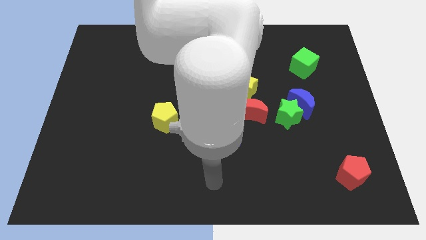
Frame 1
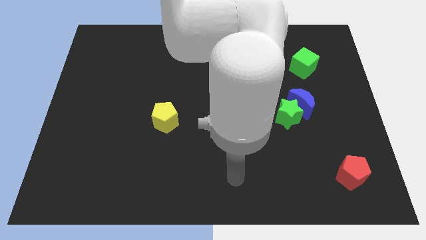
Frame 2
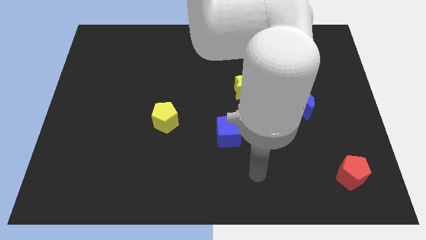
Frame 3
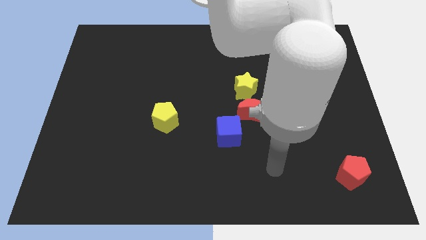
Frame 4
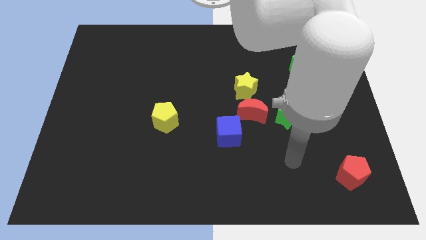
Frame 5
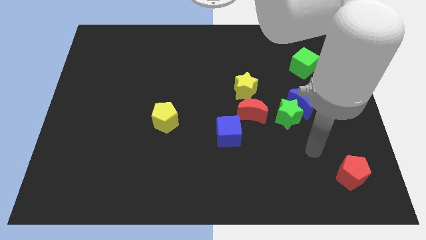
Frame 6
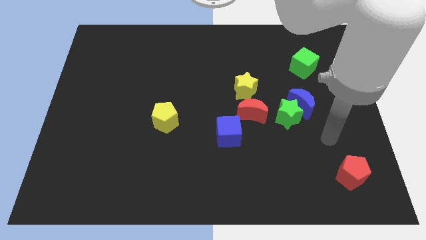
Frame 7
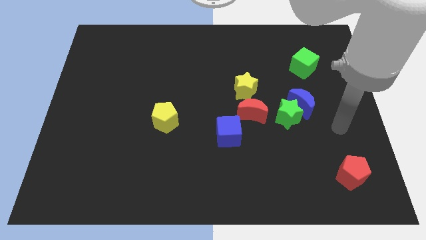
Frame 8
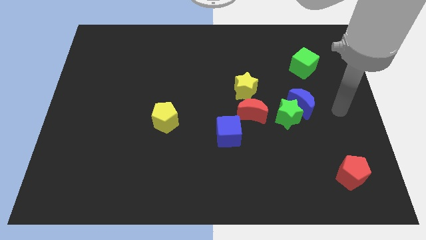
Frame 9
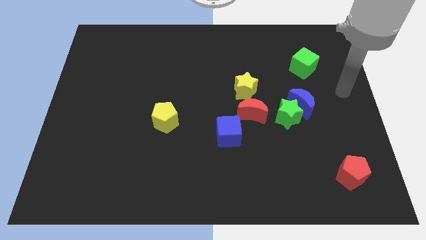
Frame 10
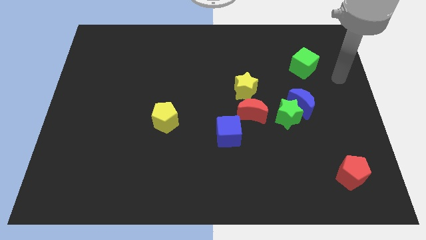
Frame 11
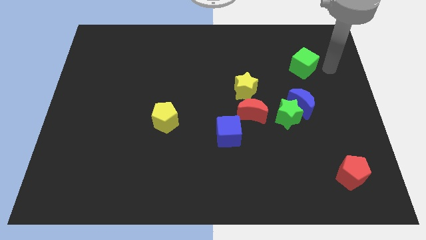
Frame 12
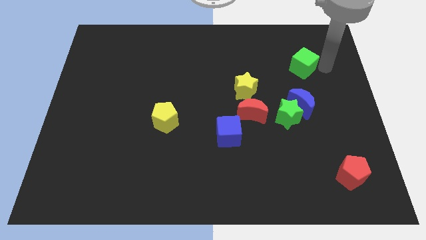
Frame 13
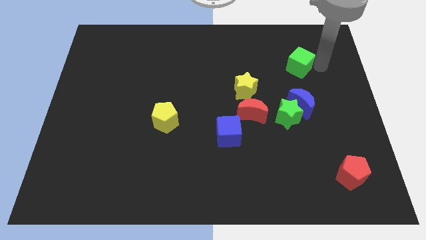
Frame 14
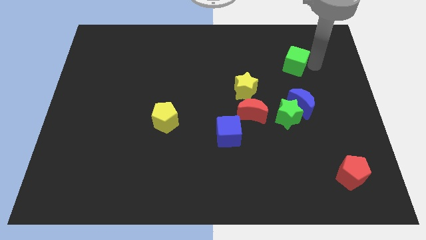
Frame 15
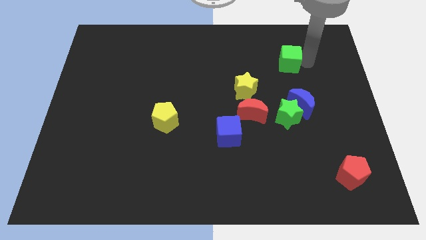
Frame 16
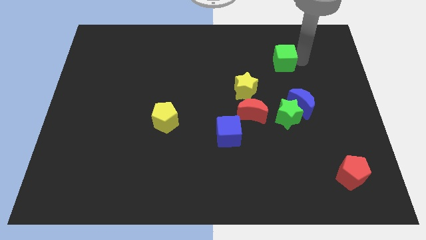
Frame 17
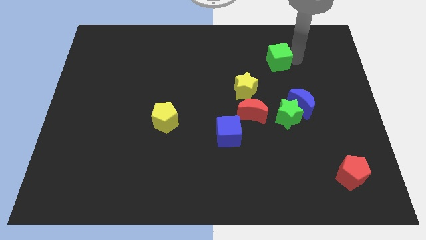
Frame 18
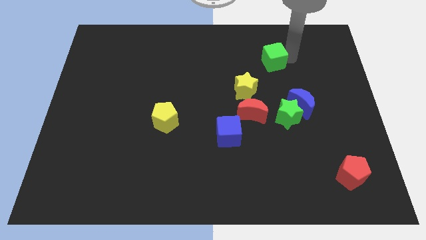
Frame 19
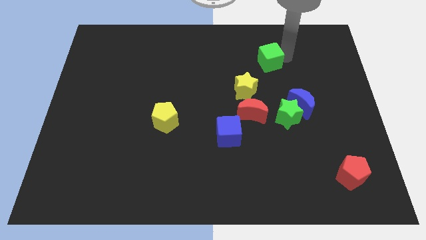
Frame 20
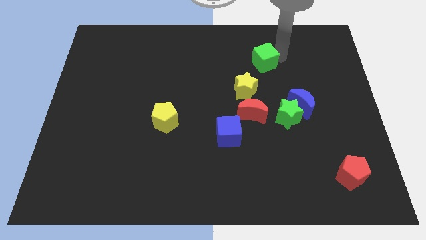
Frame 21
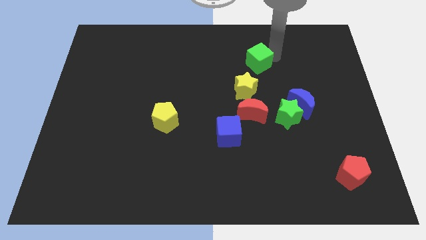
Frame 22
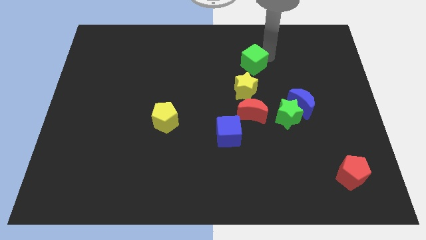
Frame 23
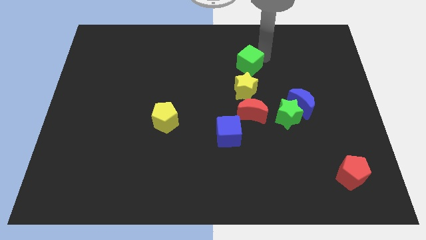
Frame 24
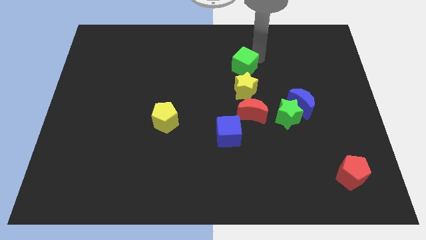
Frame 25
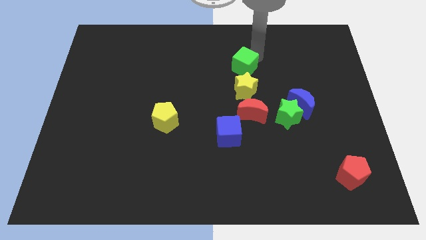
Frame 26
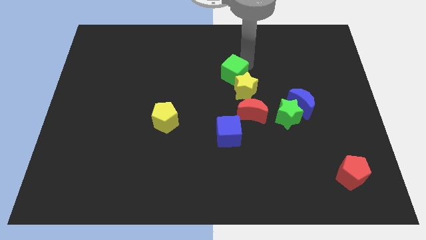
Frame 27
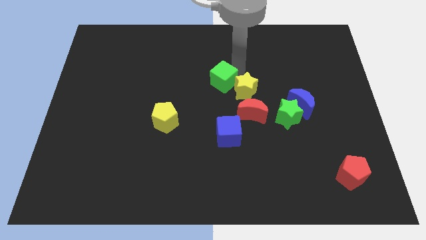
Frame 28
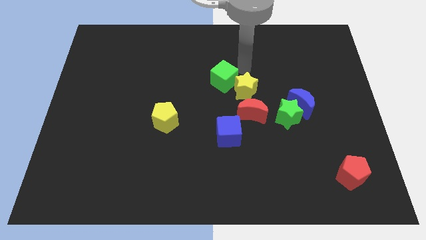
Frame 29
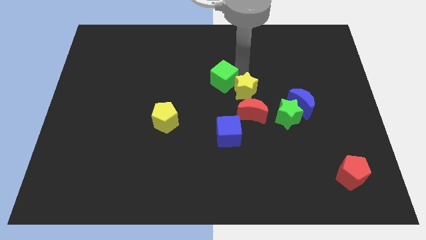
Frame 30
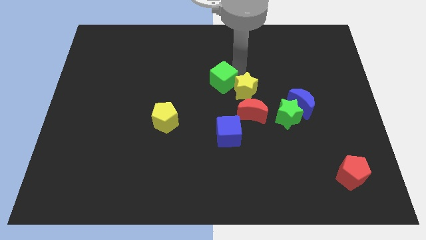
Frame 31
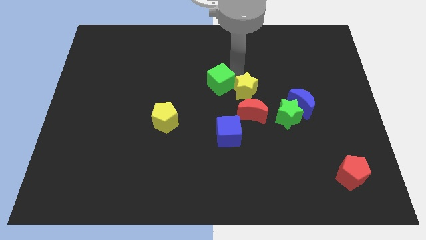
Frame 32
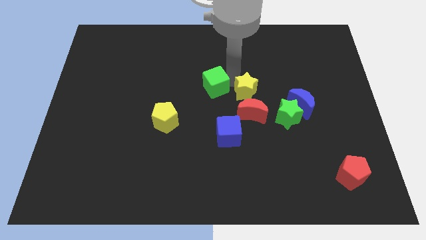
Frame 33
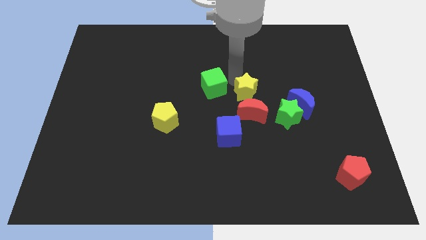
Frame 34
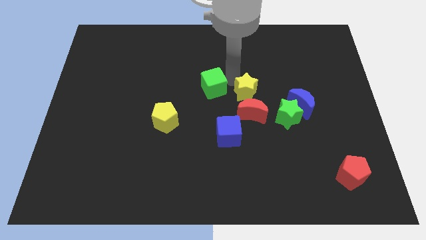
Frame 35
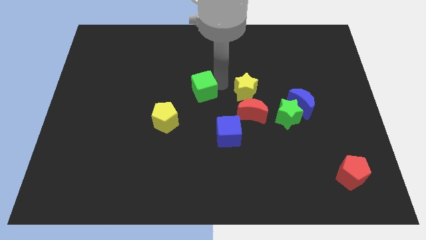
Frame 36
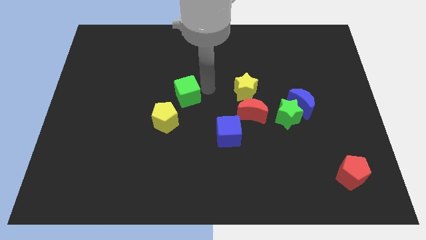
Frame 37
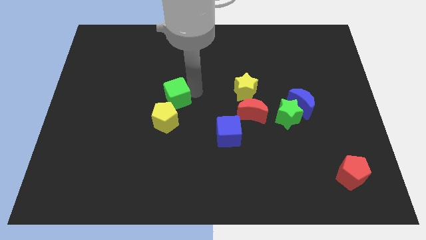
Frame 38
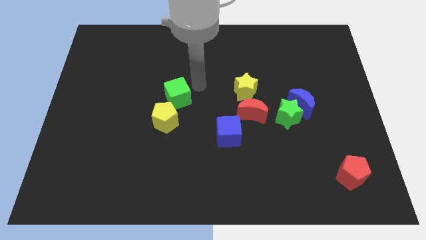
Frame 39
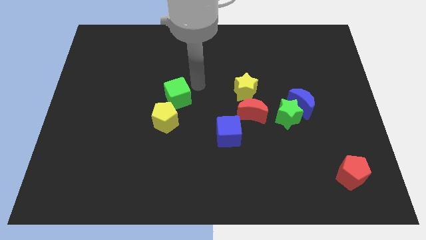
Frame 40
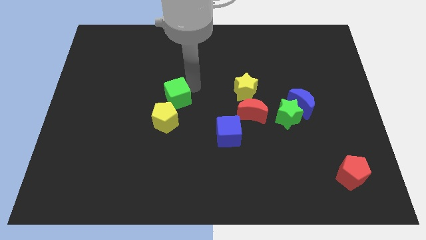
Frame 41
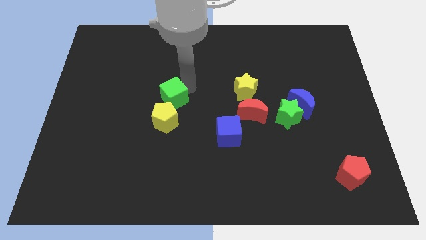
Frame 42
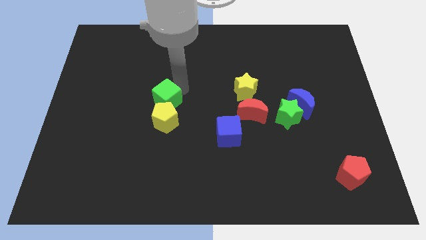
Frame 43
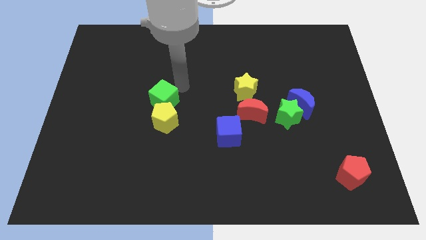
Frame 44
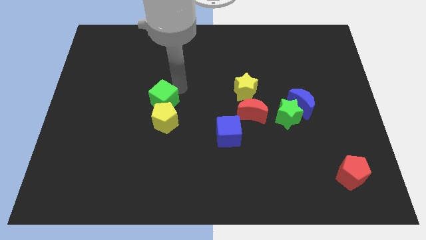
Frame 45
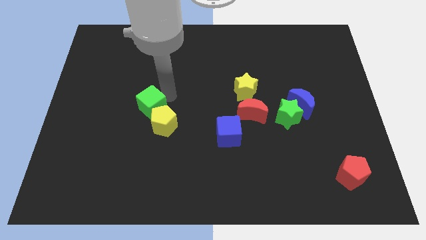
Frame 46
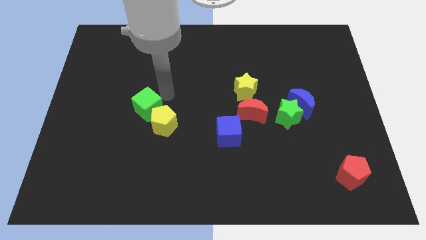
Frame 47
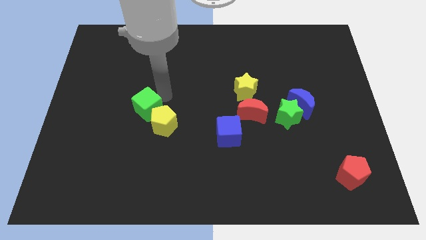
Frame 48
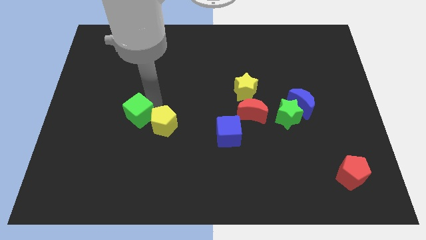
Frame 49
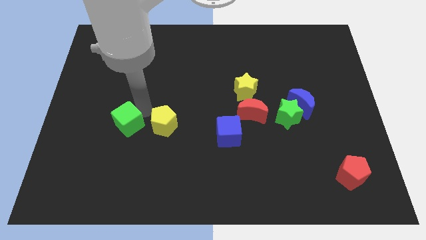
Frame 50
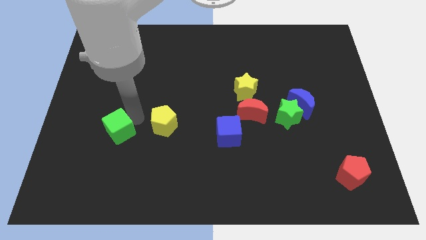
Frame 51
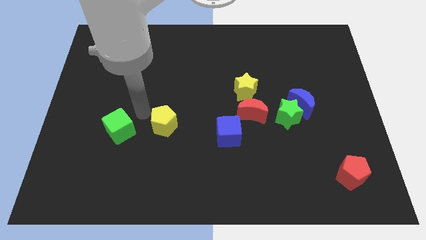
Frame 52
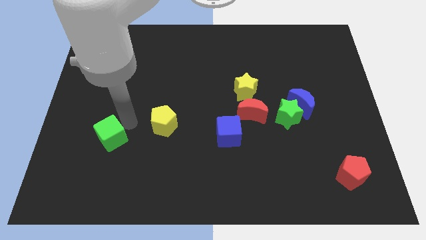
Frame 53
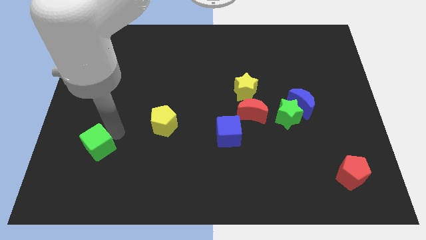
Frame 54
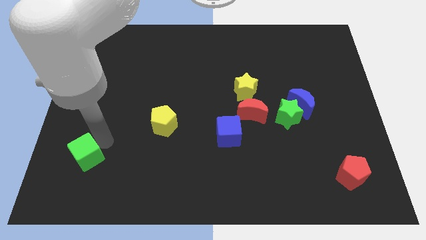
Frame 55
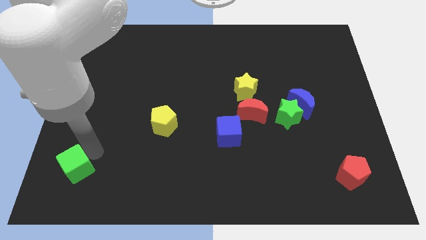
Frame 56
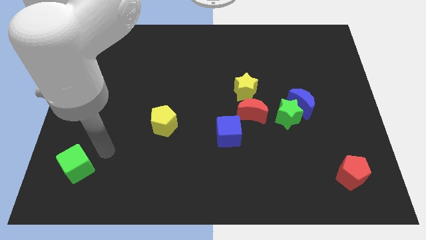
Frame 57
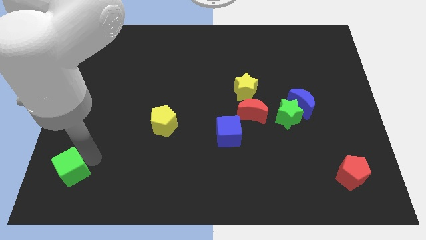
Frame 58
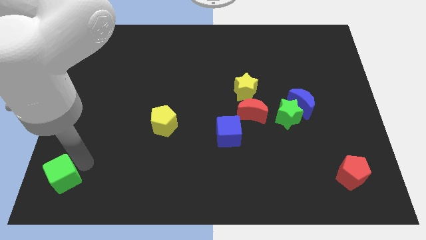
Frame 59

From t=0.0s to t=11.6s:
put the green cube to the bottom left corner

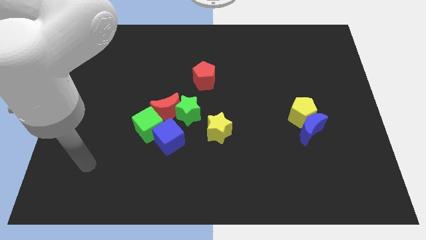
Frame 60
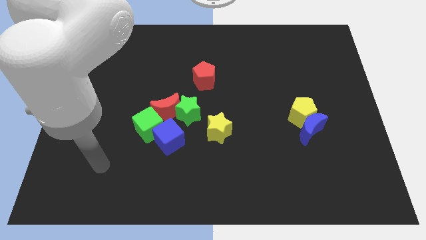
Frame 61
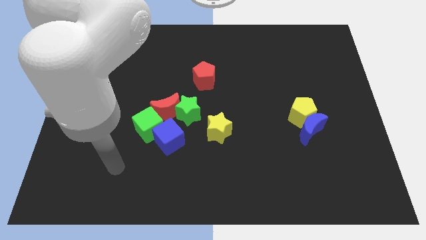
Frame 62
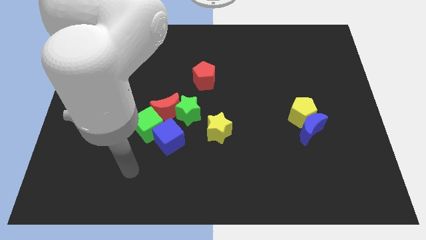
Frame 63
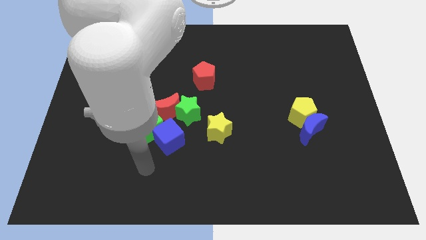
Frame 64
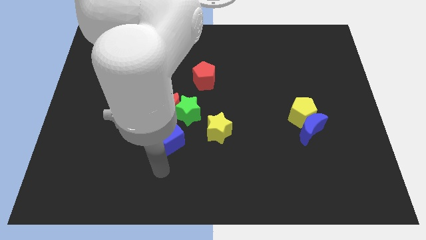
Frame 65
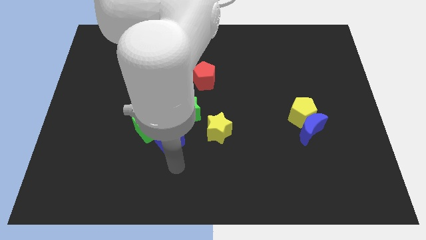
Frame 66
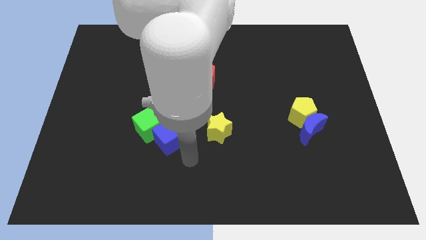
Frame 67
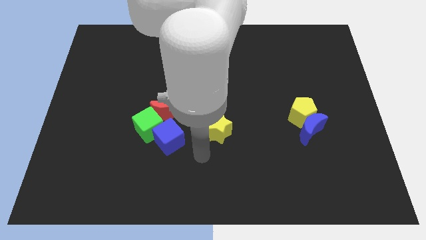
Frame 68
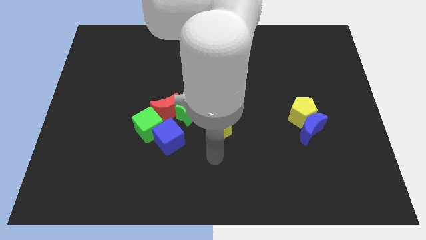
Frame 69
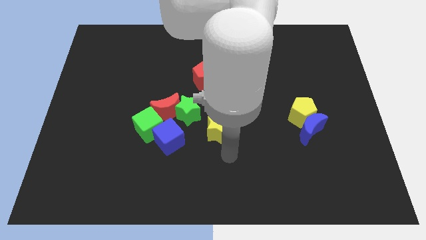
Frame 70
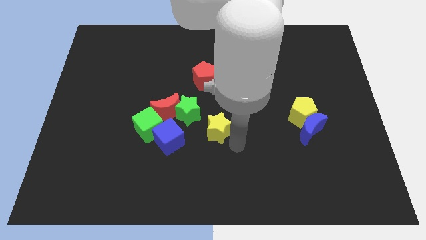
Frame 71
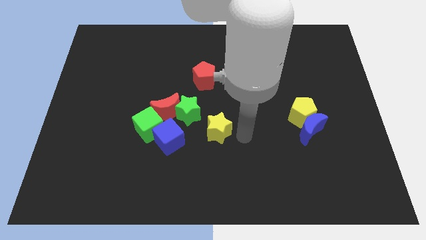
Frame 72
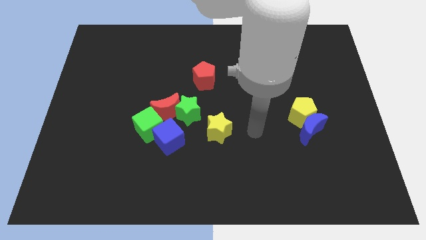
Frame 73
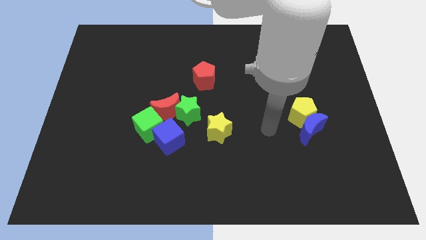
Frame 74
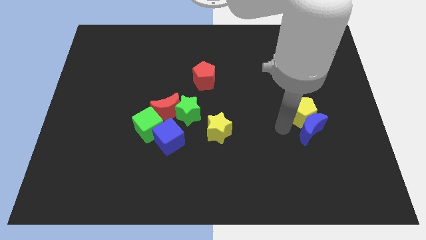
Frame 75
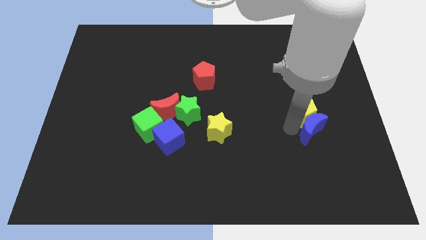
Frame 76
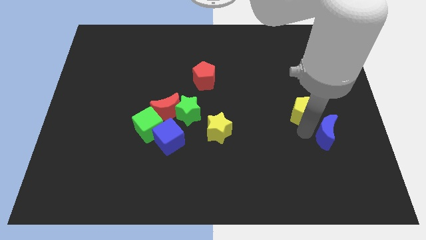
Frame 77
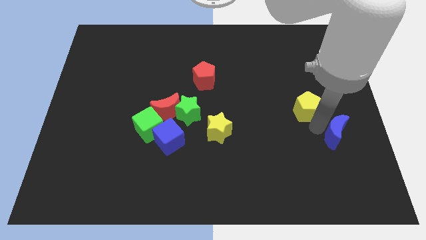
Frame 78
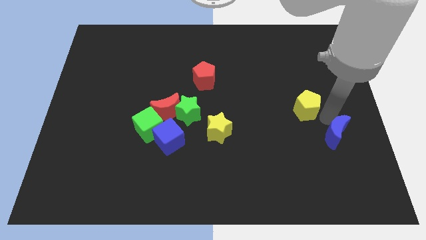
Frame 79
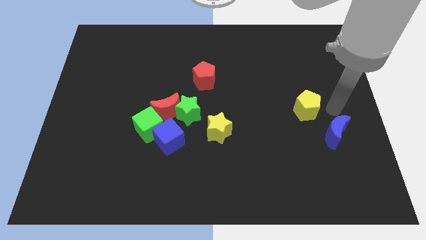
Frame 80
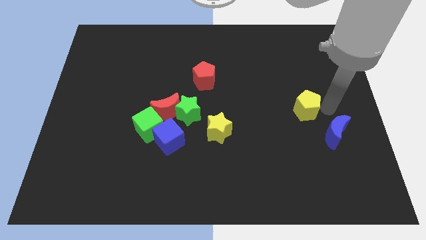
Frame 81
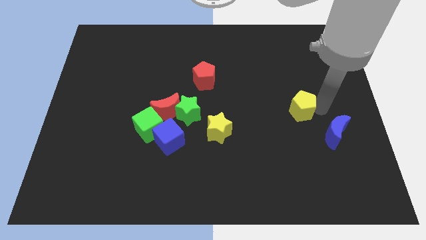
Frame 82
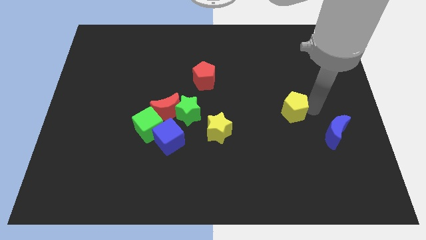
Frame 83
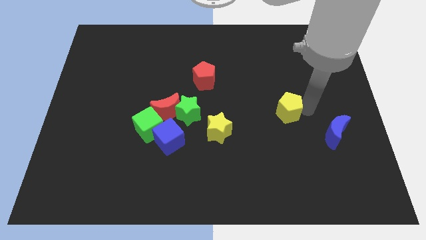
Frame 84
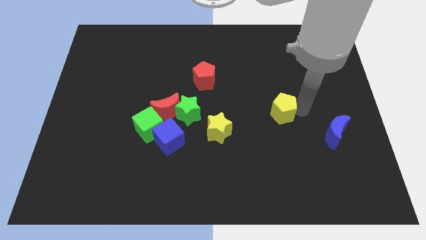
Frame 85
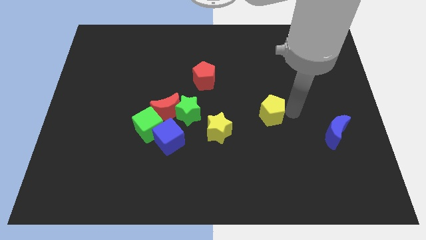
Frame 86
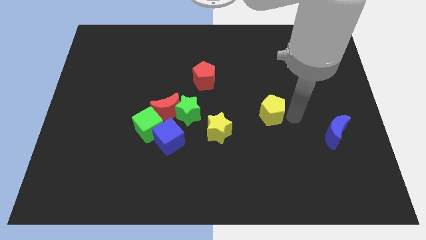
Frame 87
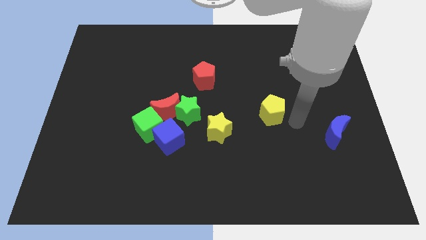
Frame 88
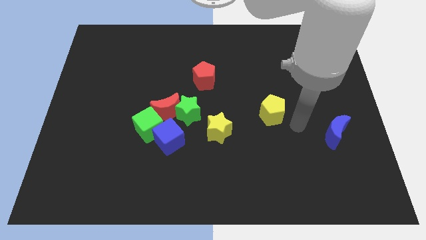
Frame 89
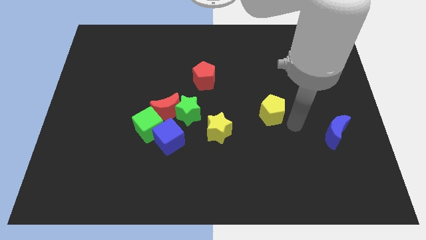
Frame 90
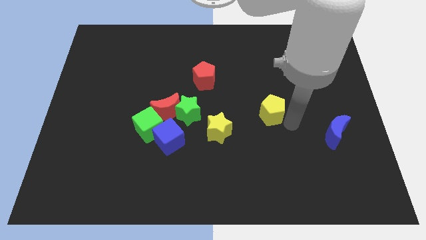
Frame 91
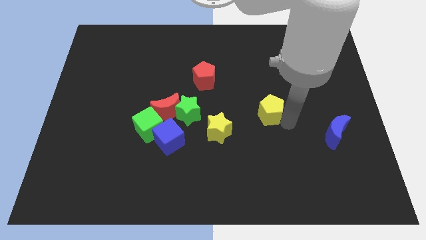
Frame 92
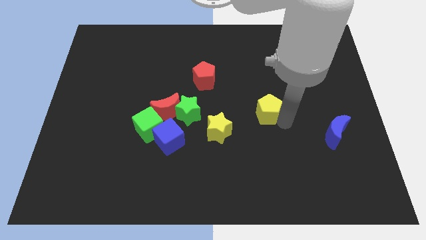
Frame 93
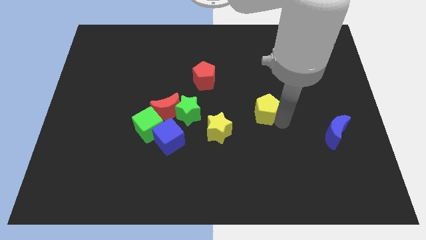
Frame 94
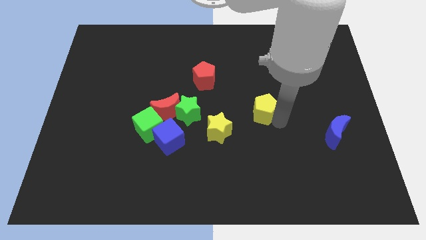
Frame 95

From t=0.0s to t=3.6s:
move the yellow pentagon to the middle
